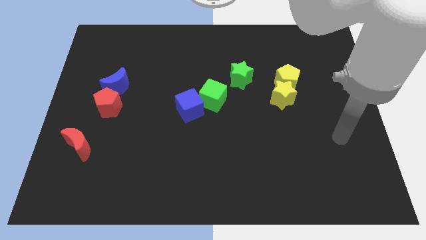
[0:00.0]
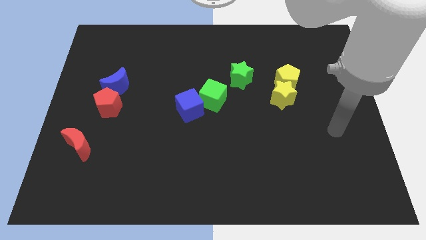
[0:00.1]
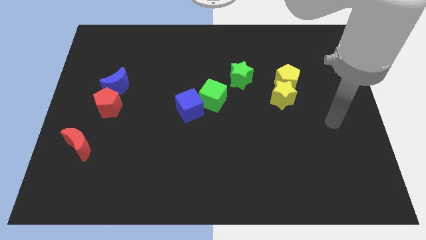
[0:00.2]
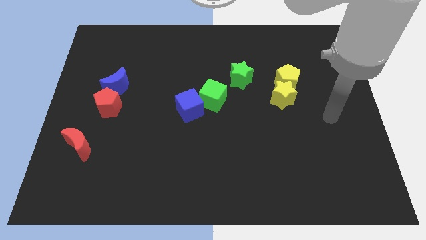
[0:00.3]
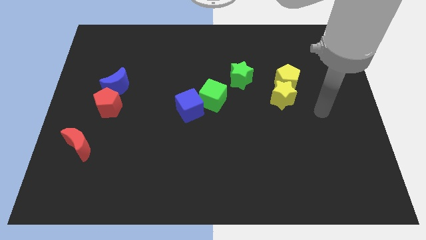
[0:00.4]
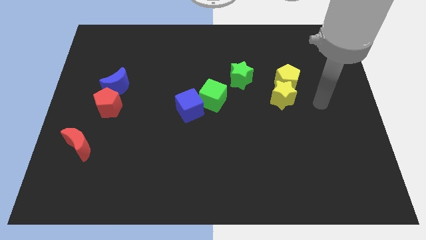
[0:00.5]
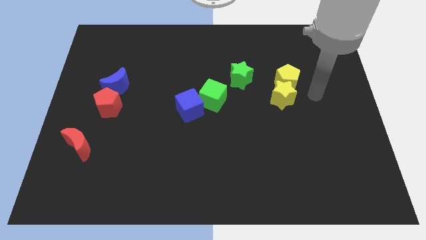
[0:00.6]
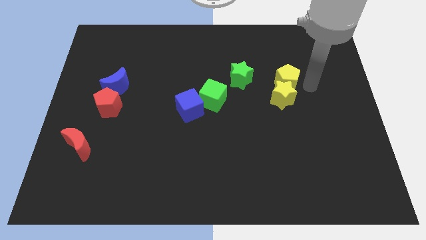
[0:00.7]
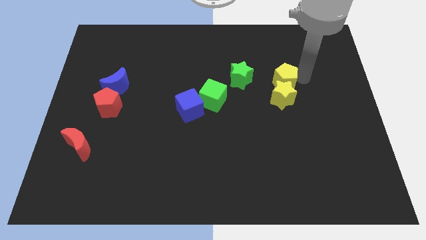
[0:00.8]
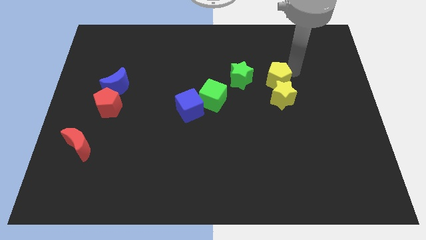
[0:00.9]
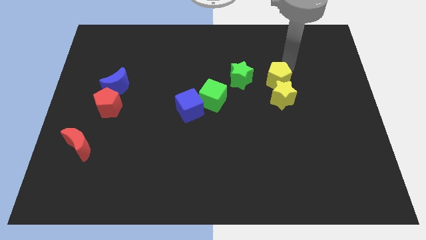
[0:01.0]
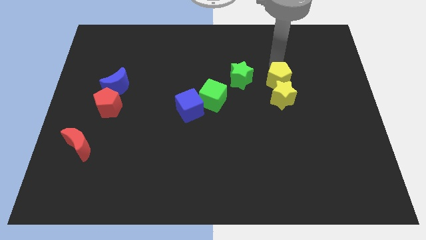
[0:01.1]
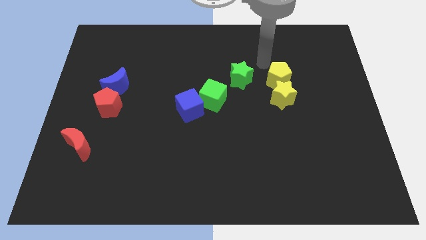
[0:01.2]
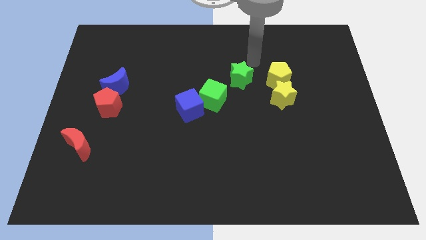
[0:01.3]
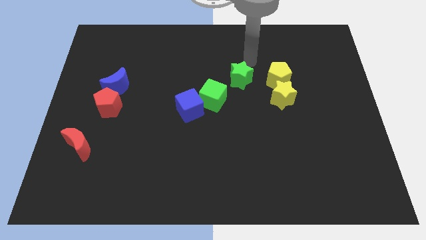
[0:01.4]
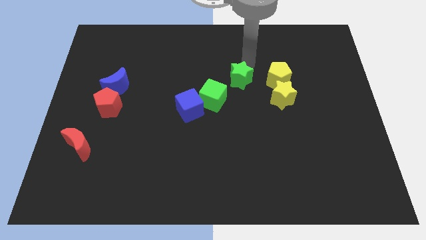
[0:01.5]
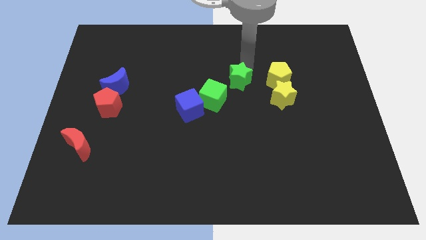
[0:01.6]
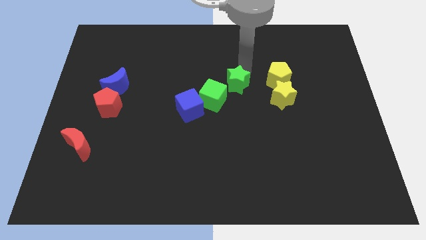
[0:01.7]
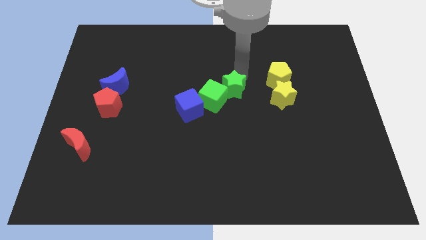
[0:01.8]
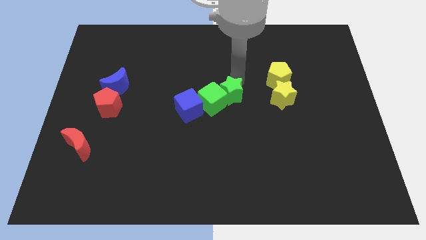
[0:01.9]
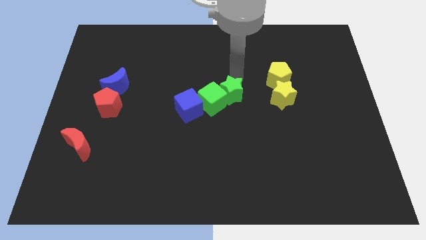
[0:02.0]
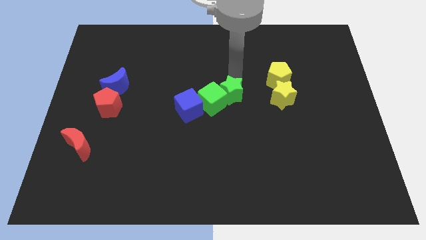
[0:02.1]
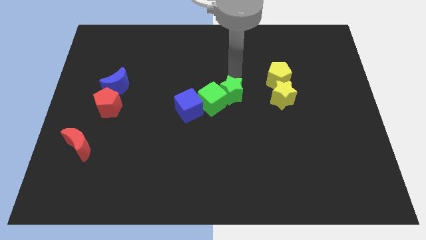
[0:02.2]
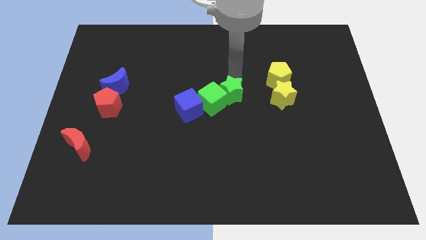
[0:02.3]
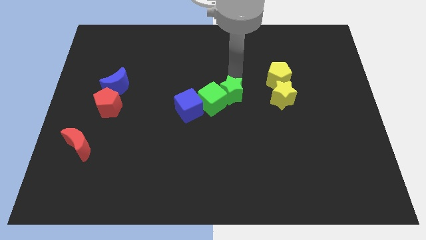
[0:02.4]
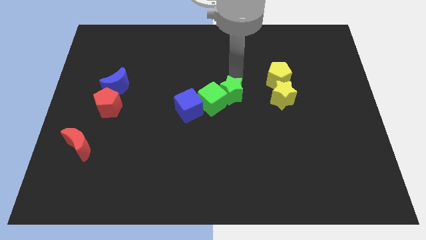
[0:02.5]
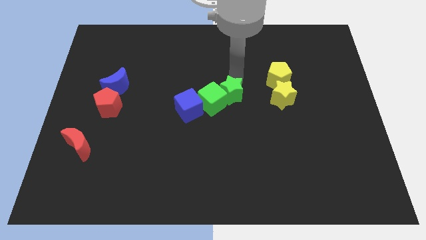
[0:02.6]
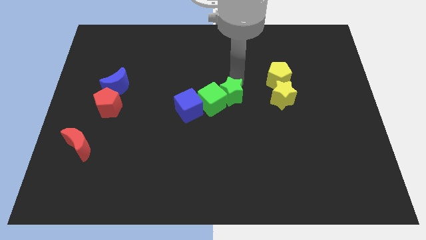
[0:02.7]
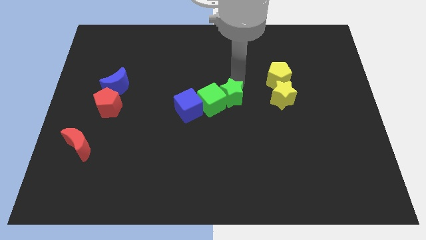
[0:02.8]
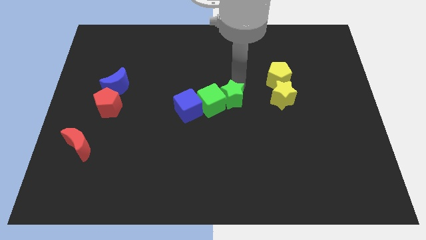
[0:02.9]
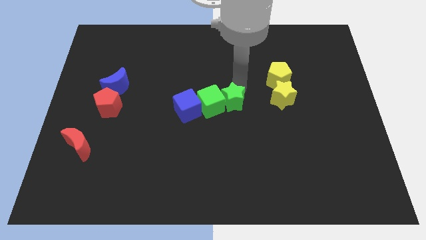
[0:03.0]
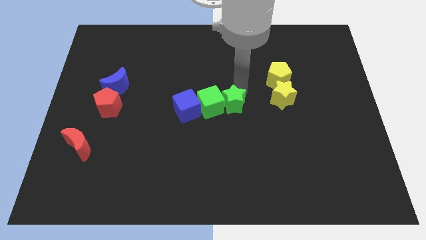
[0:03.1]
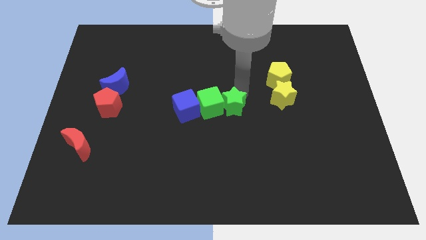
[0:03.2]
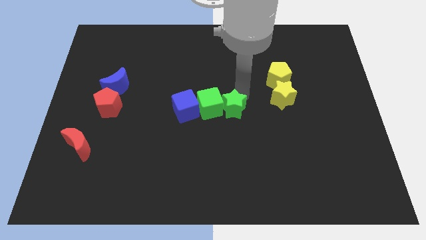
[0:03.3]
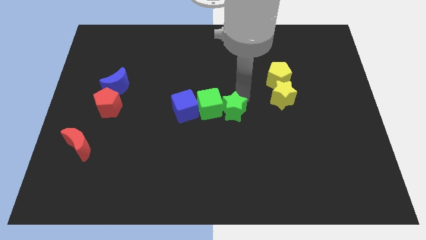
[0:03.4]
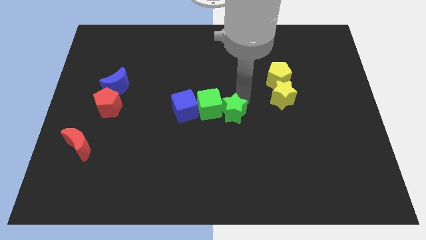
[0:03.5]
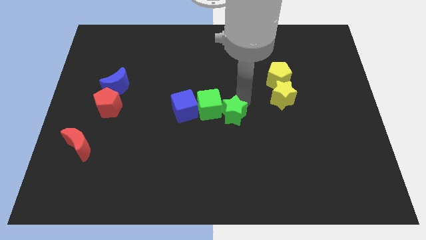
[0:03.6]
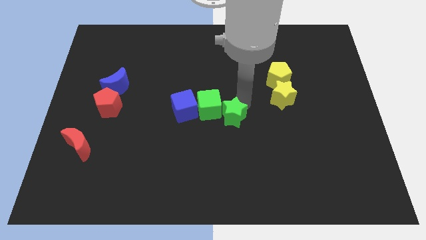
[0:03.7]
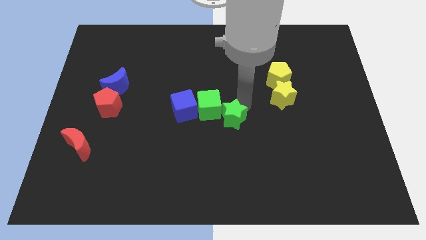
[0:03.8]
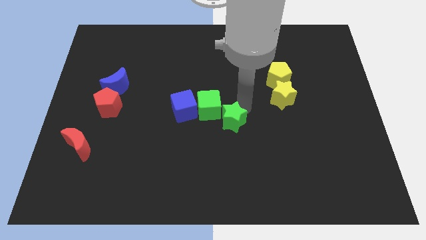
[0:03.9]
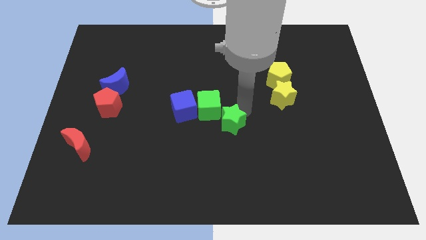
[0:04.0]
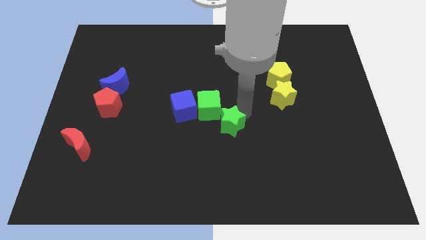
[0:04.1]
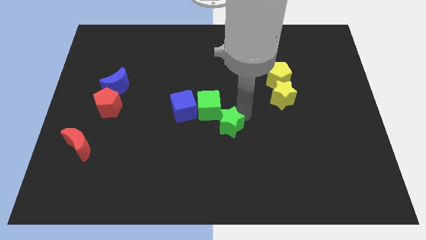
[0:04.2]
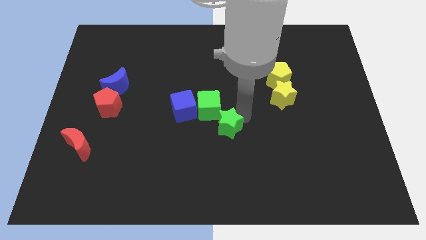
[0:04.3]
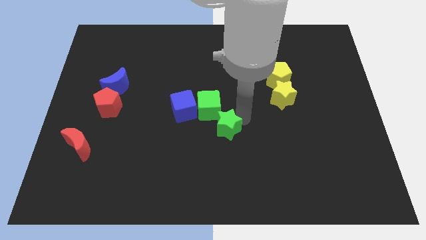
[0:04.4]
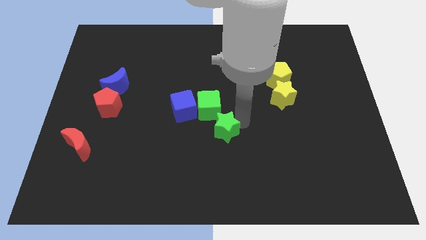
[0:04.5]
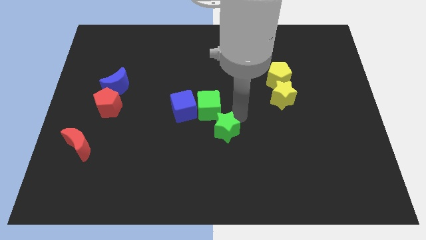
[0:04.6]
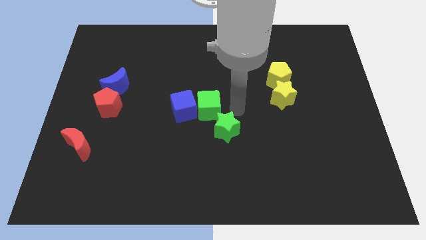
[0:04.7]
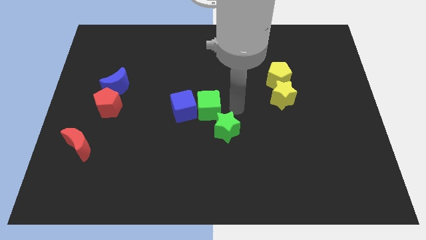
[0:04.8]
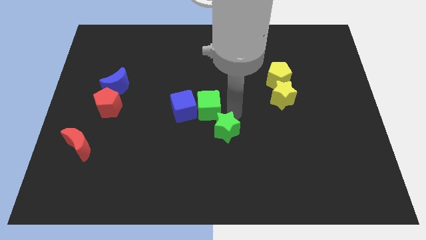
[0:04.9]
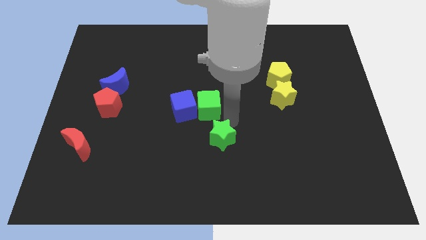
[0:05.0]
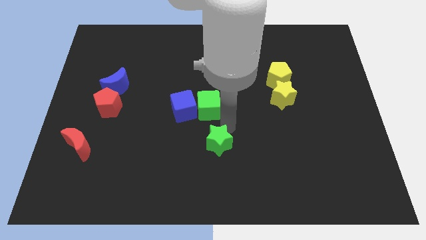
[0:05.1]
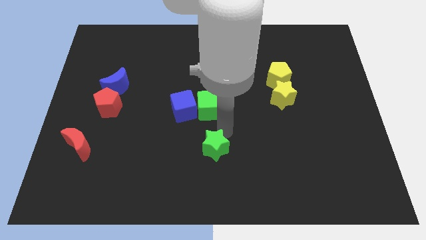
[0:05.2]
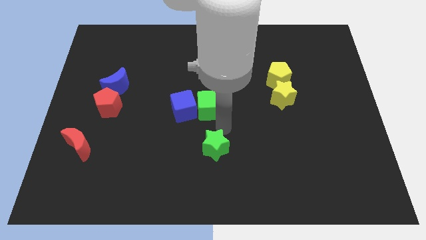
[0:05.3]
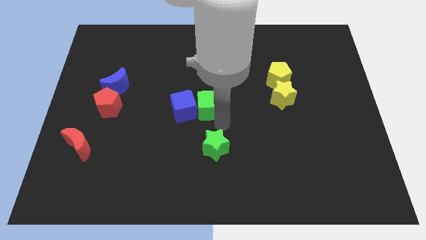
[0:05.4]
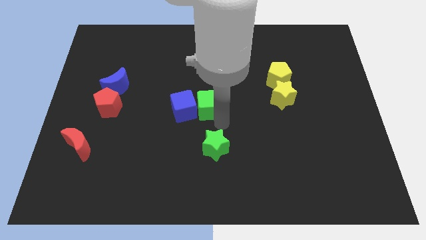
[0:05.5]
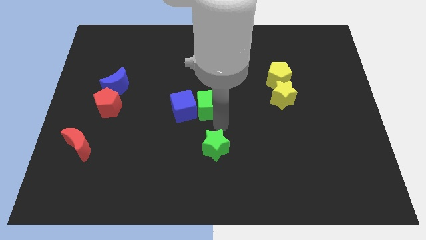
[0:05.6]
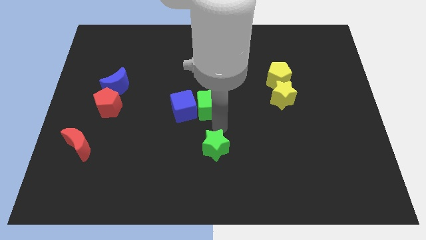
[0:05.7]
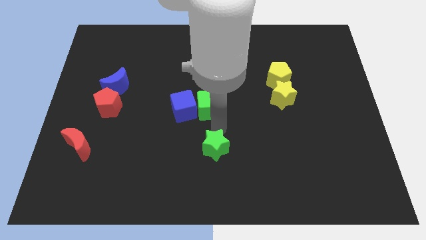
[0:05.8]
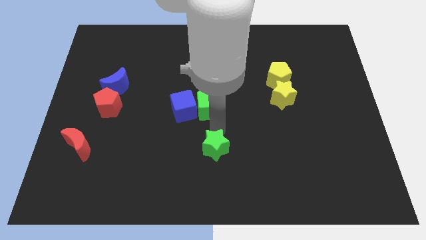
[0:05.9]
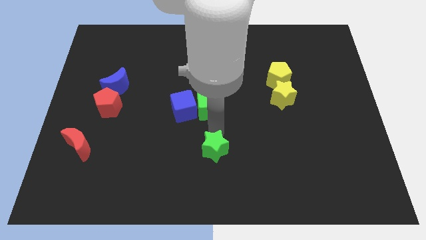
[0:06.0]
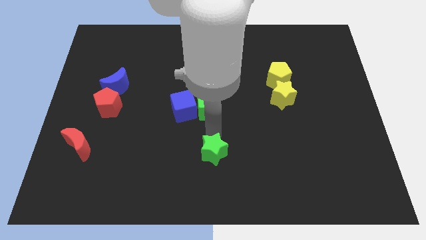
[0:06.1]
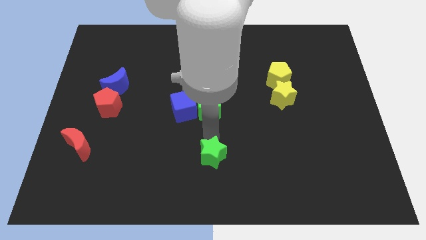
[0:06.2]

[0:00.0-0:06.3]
slide the green star to the bottom
